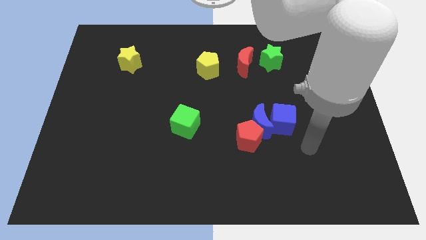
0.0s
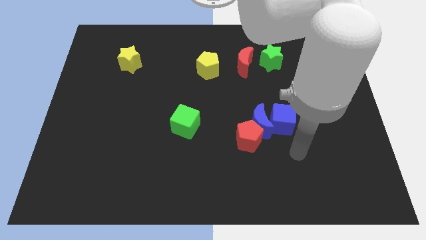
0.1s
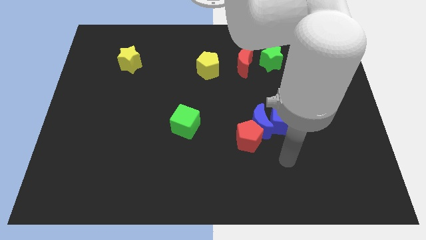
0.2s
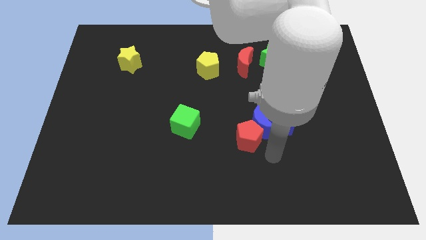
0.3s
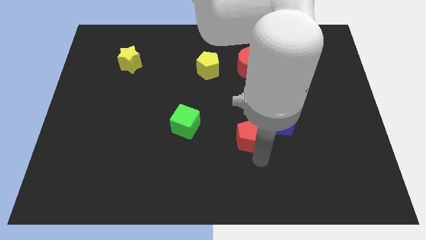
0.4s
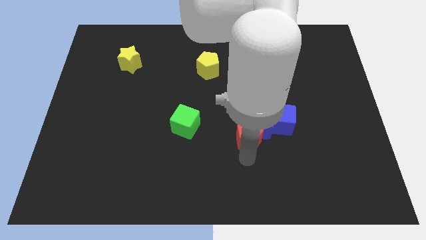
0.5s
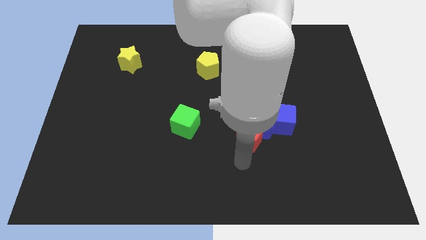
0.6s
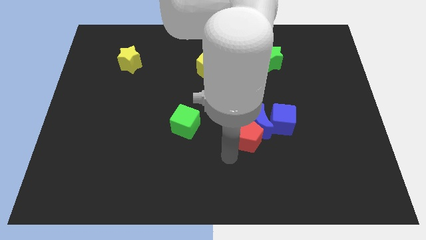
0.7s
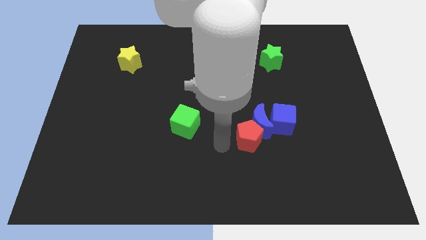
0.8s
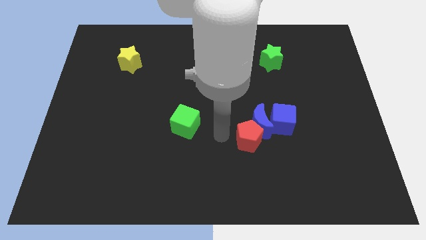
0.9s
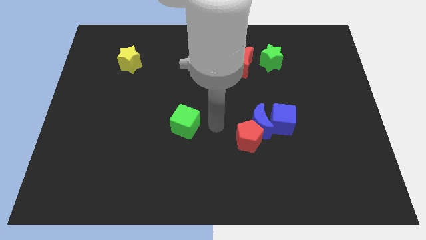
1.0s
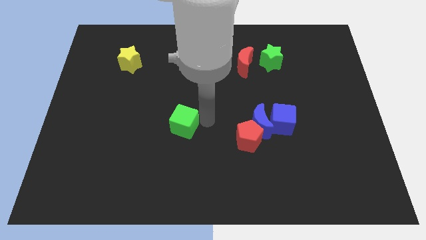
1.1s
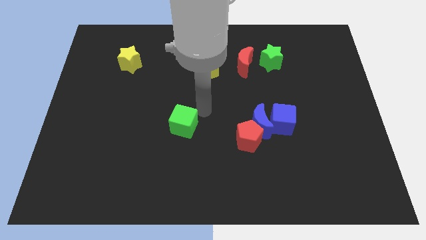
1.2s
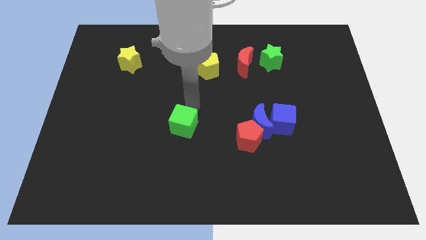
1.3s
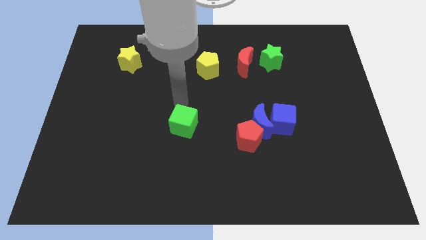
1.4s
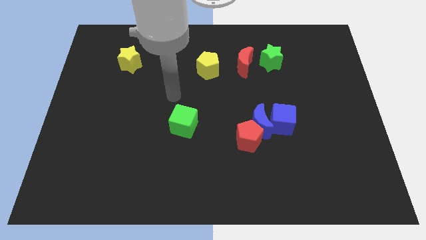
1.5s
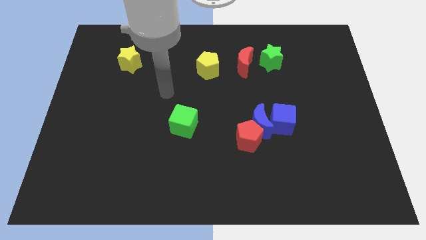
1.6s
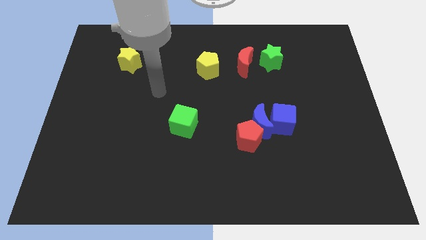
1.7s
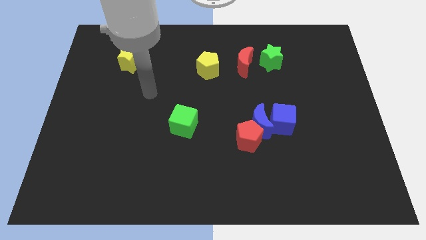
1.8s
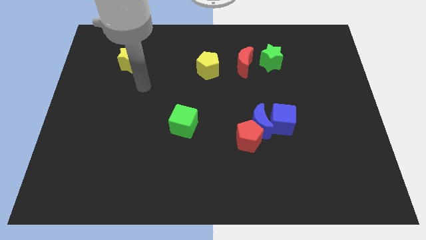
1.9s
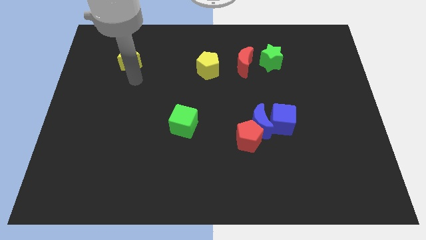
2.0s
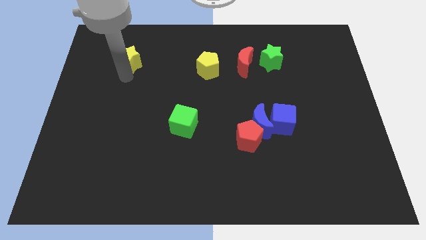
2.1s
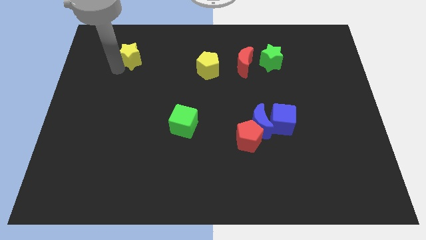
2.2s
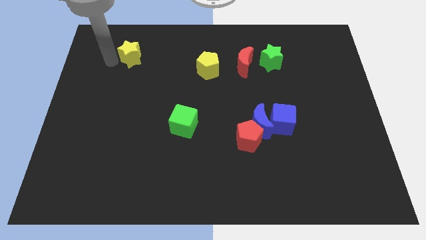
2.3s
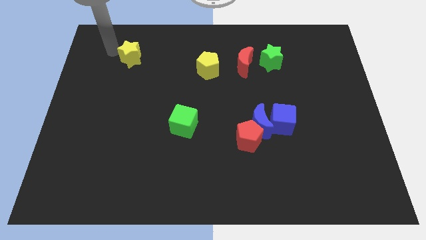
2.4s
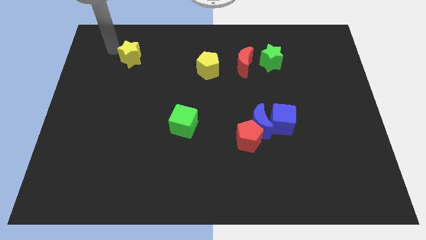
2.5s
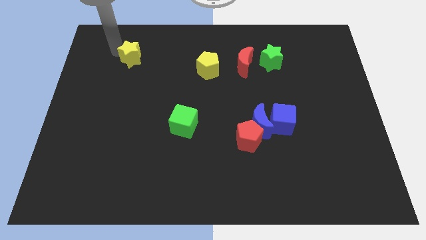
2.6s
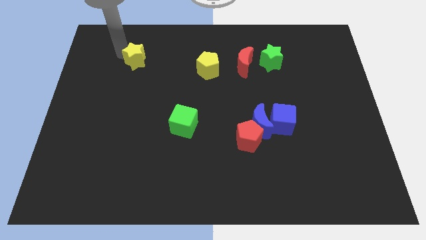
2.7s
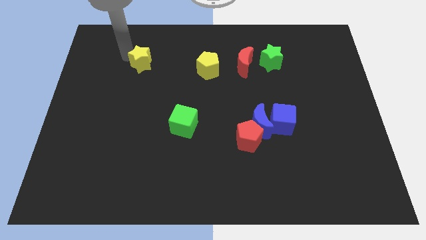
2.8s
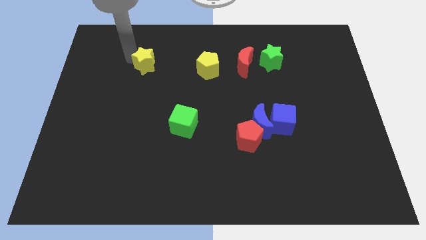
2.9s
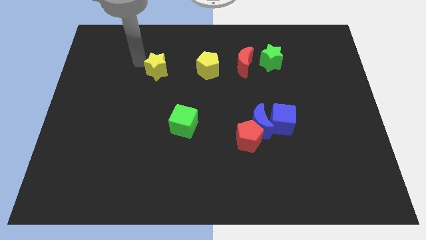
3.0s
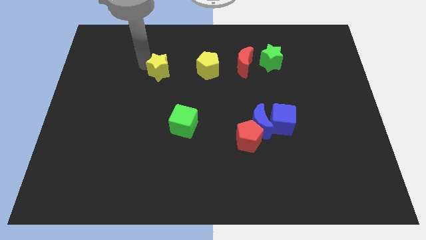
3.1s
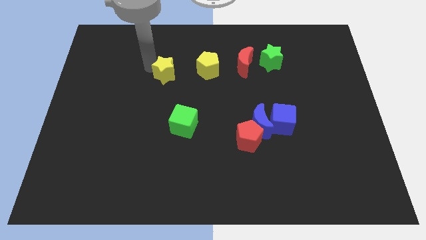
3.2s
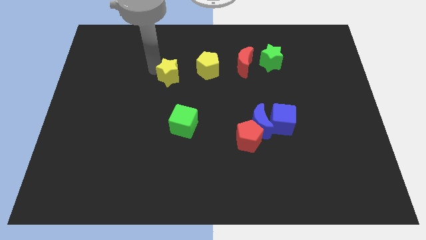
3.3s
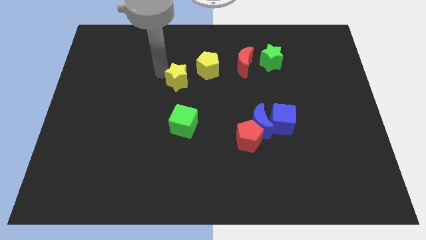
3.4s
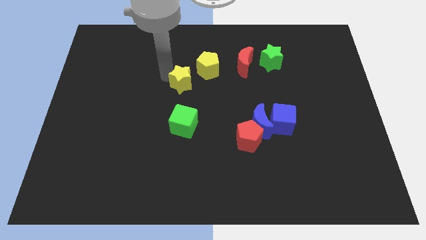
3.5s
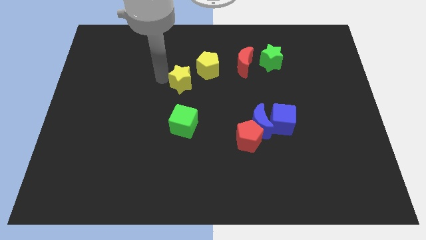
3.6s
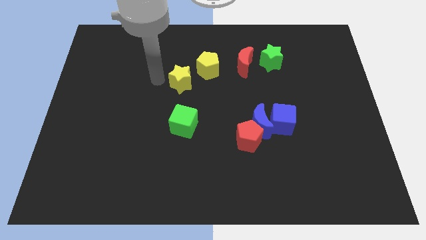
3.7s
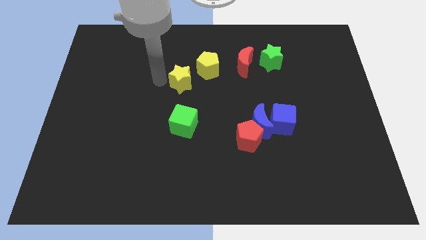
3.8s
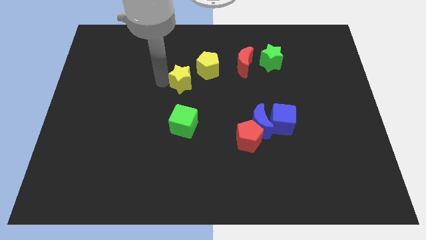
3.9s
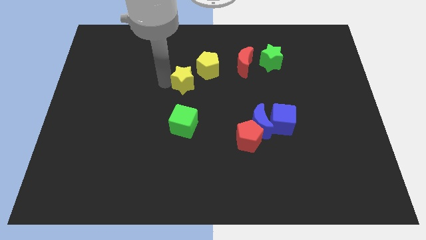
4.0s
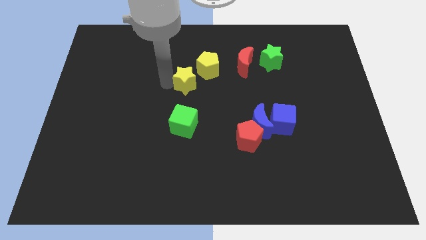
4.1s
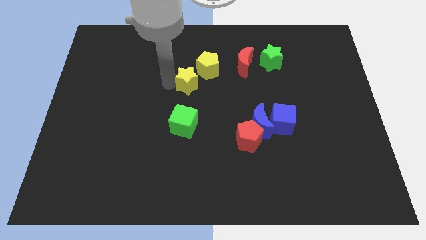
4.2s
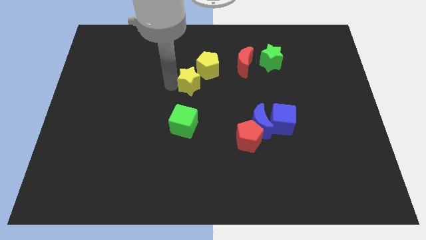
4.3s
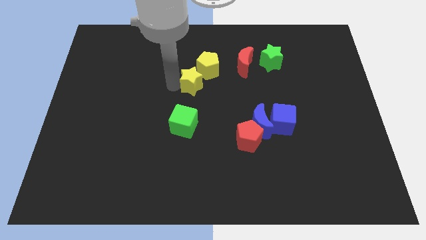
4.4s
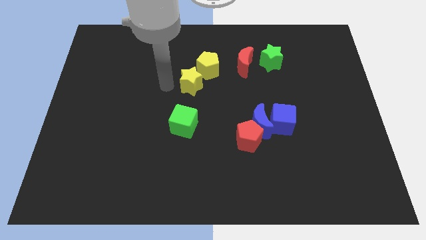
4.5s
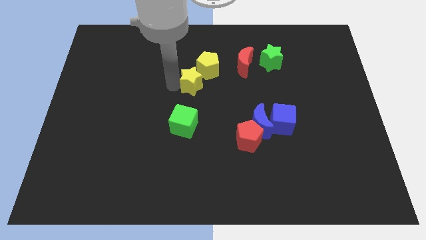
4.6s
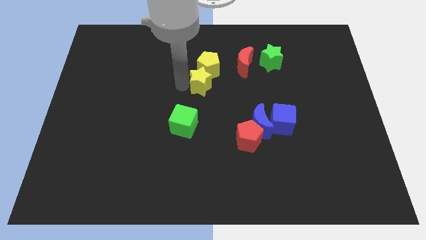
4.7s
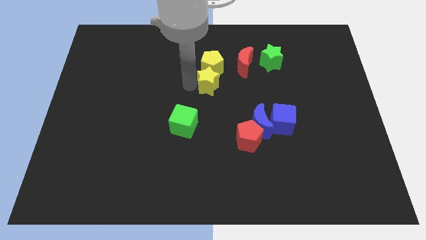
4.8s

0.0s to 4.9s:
push the yellow star diagonally down and to the right of the yellow pentagon

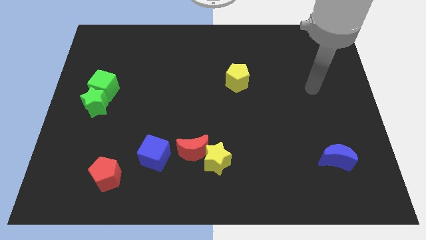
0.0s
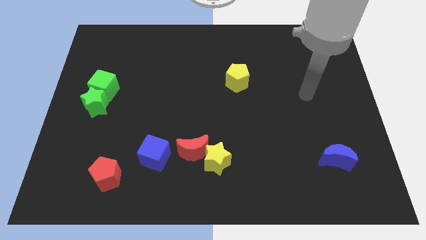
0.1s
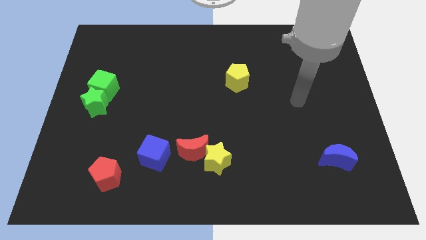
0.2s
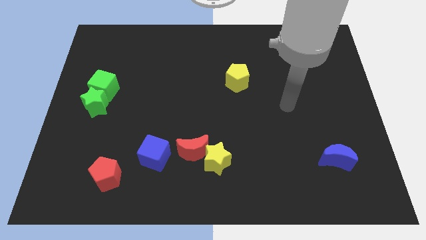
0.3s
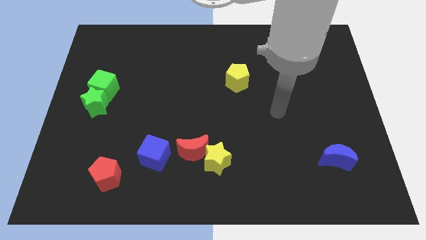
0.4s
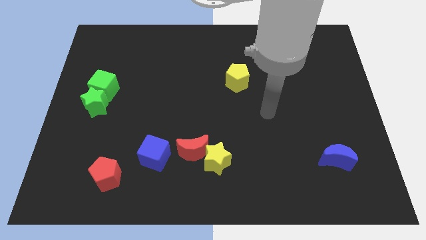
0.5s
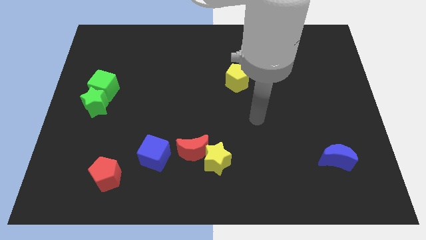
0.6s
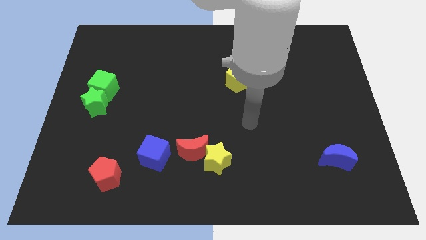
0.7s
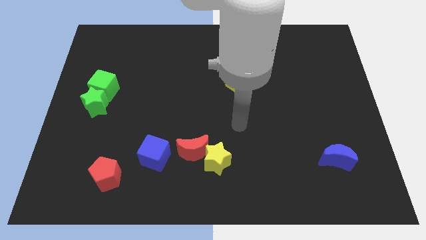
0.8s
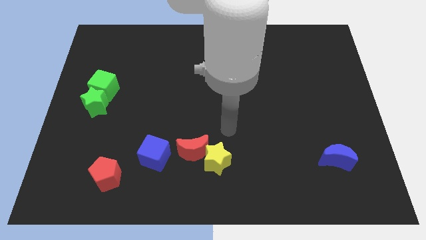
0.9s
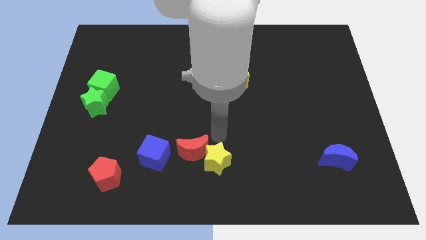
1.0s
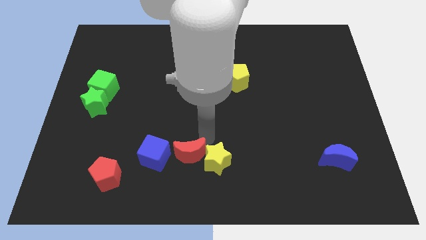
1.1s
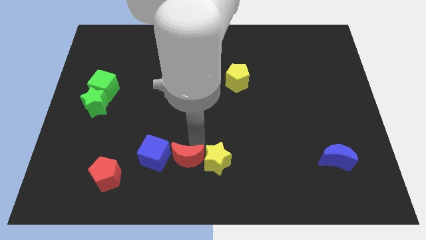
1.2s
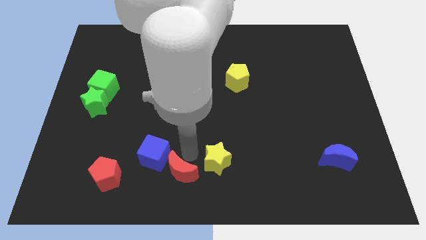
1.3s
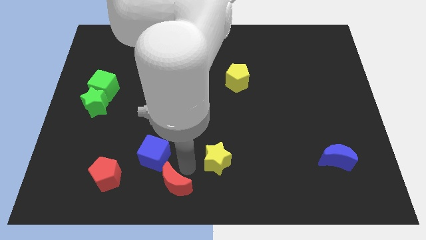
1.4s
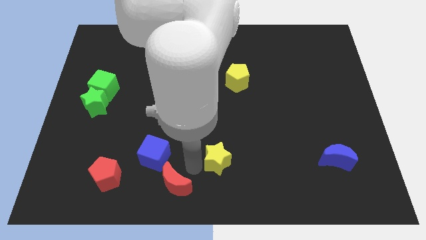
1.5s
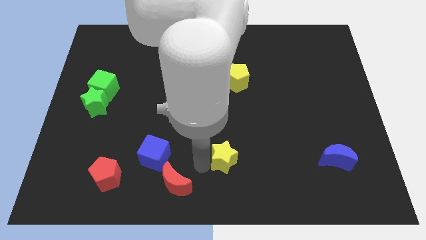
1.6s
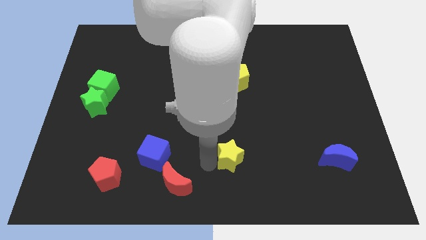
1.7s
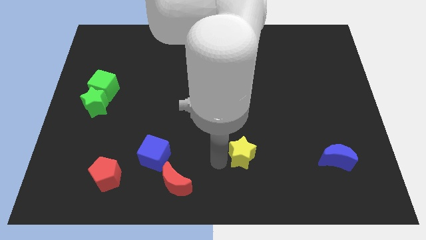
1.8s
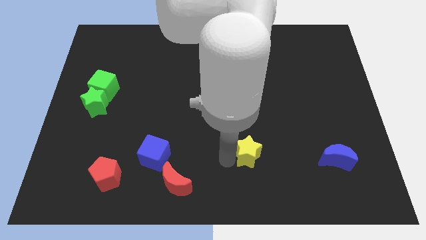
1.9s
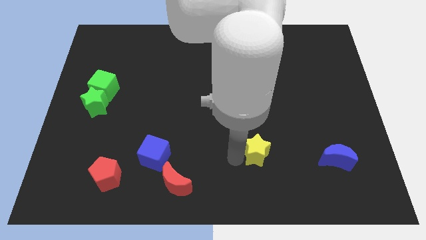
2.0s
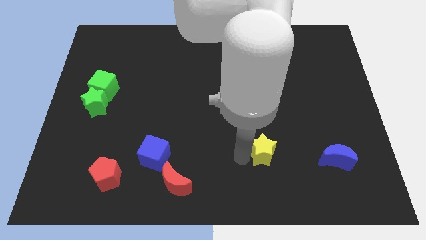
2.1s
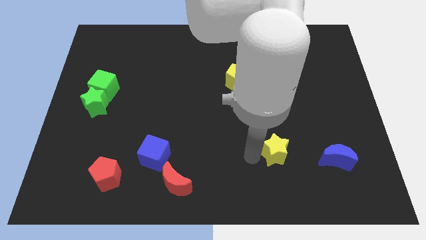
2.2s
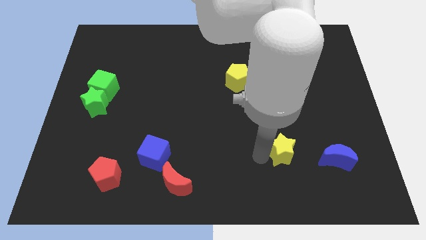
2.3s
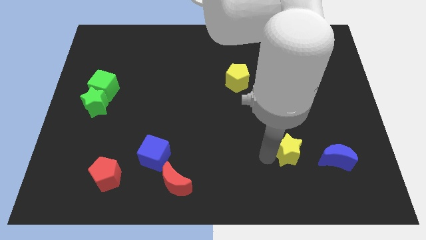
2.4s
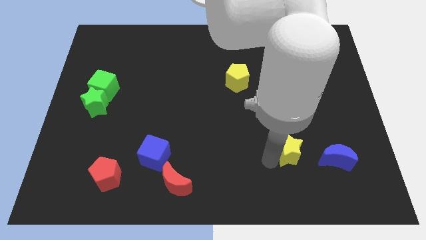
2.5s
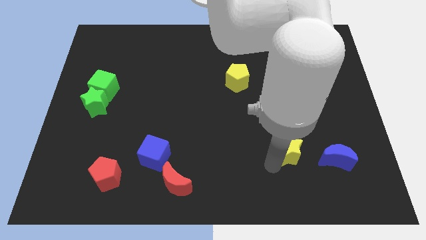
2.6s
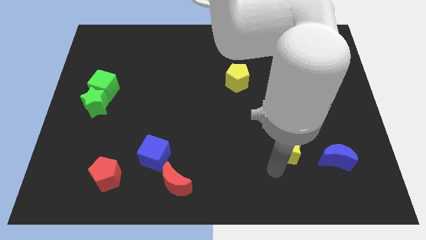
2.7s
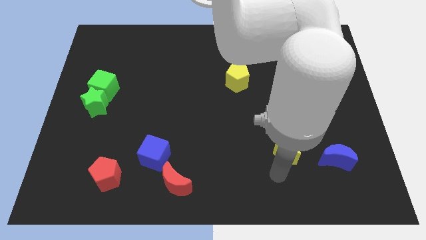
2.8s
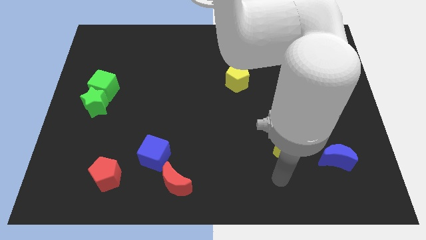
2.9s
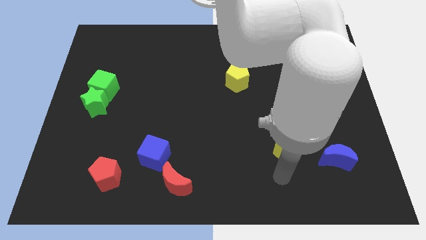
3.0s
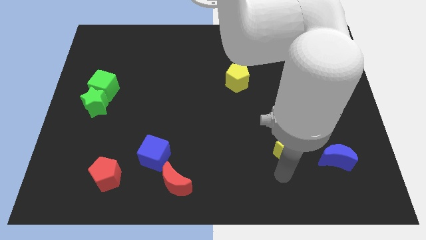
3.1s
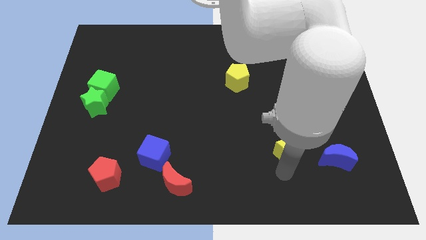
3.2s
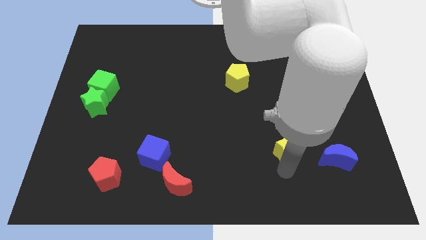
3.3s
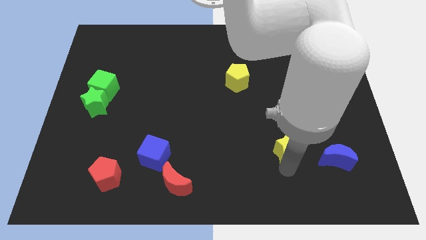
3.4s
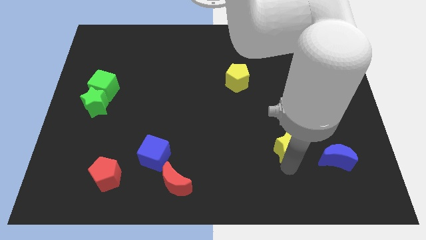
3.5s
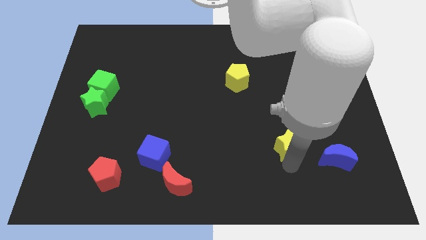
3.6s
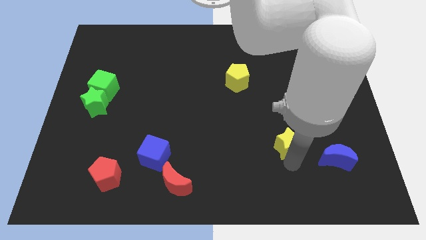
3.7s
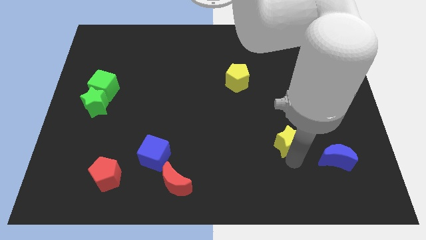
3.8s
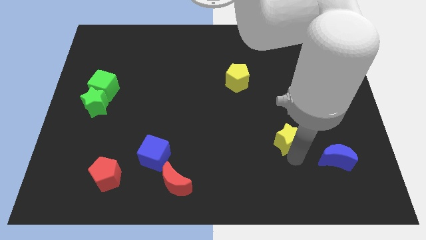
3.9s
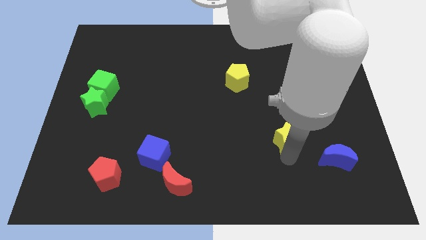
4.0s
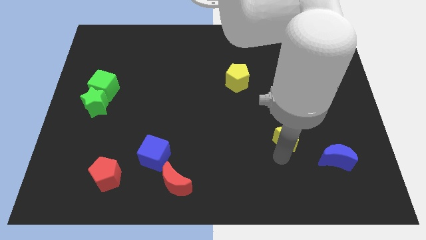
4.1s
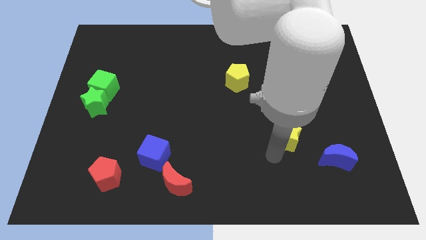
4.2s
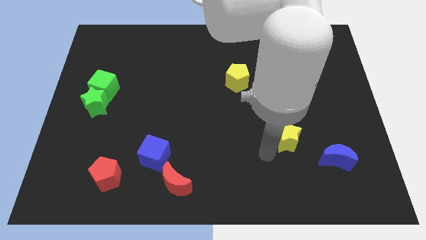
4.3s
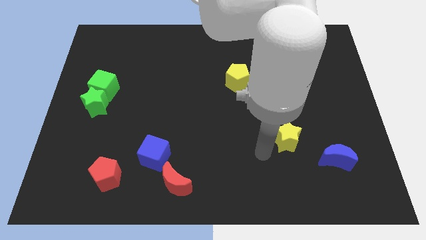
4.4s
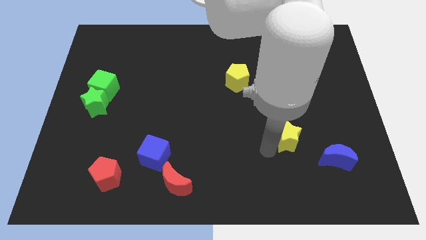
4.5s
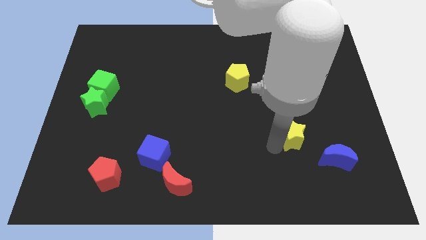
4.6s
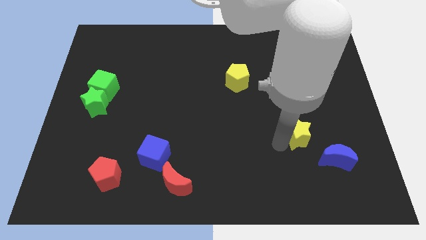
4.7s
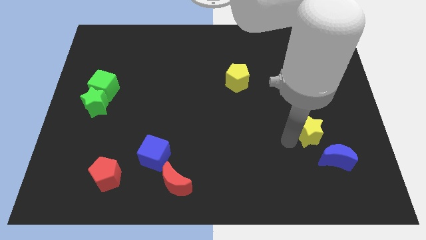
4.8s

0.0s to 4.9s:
put the yellow star above the blue moon
